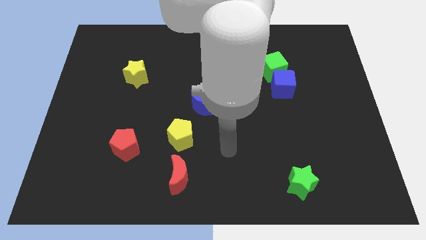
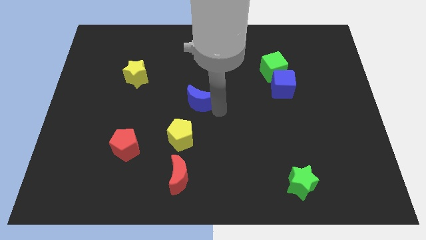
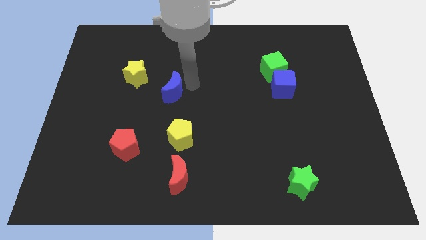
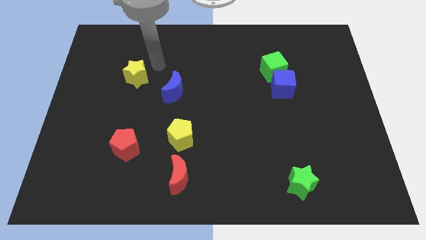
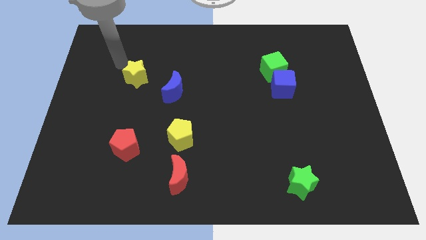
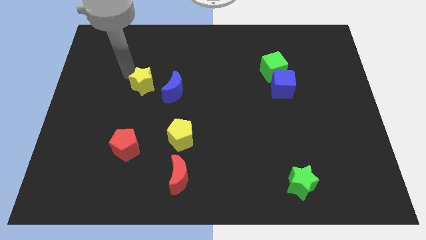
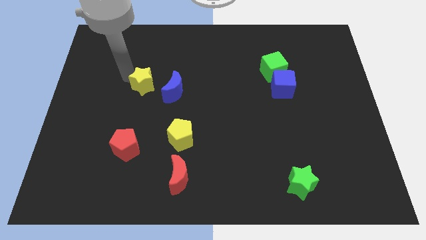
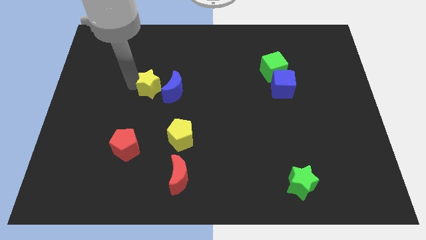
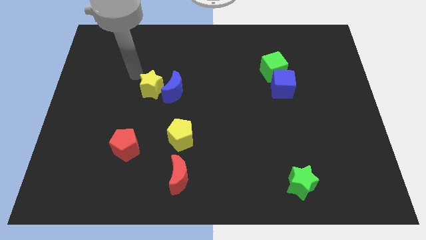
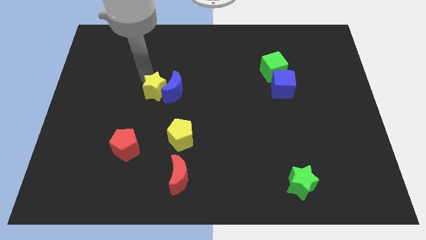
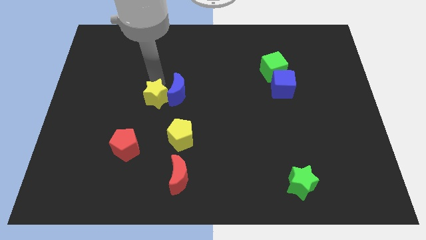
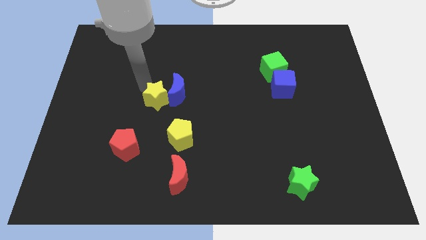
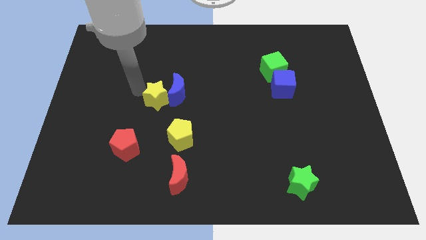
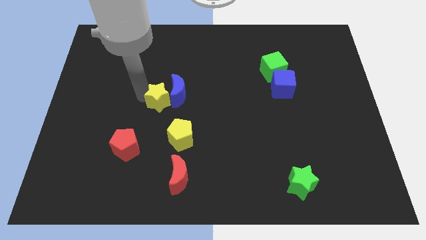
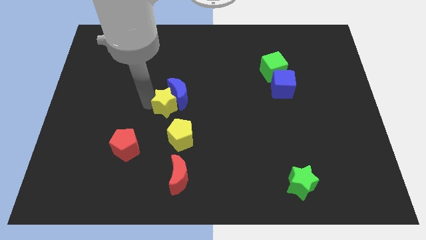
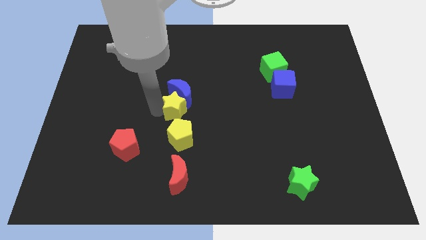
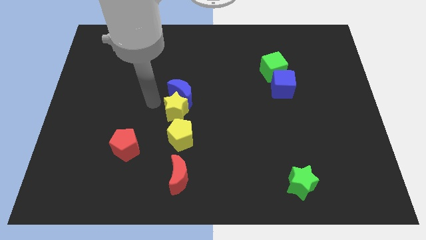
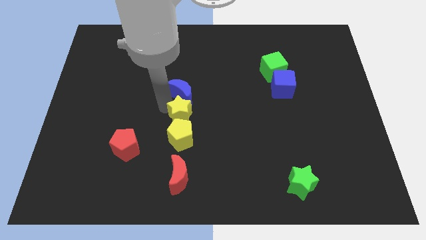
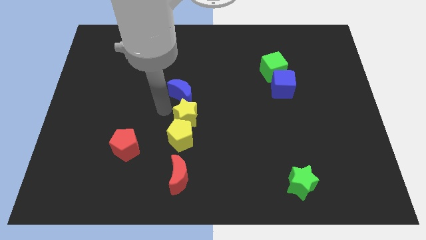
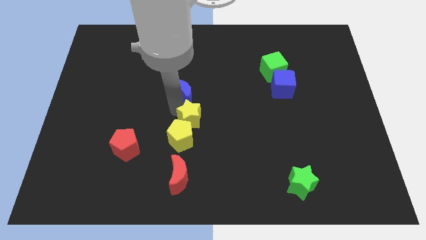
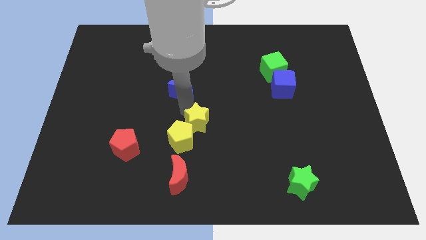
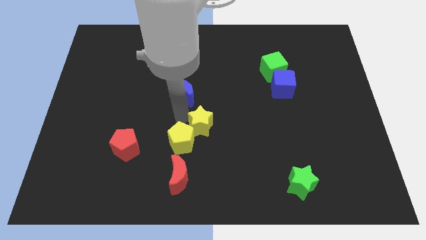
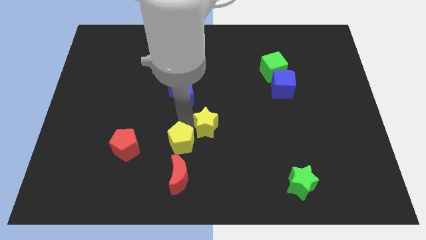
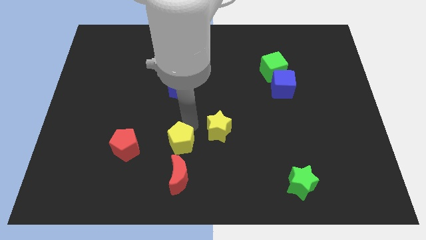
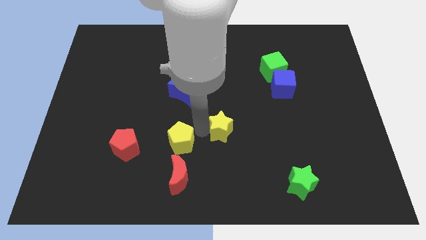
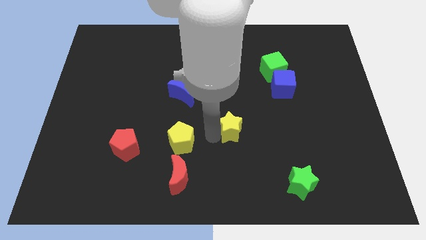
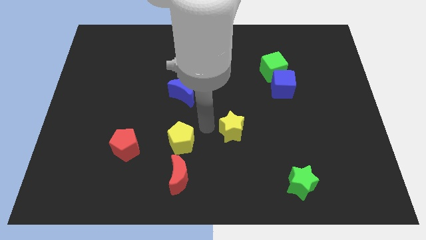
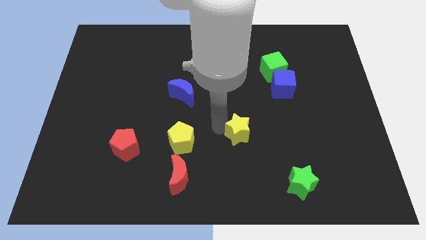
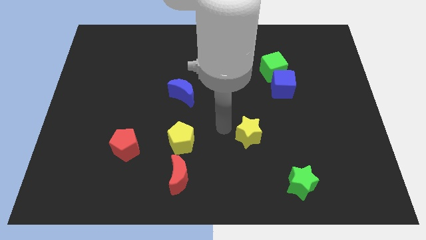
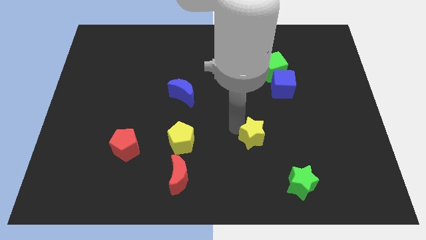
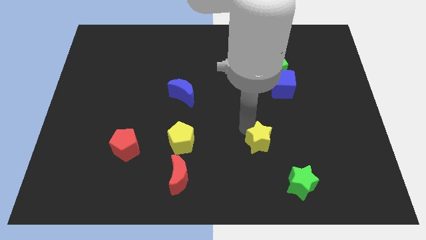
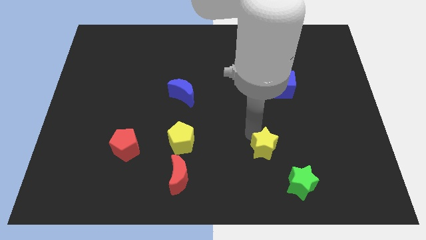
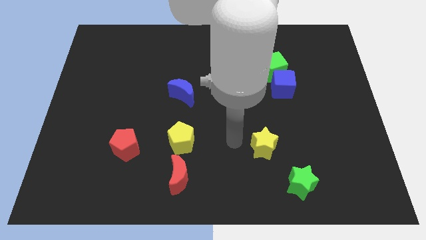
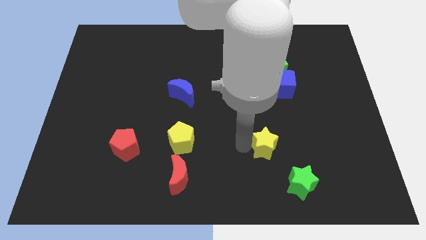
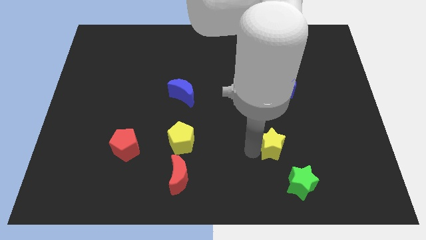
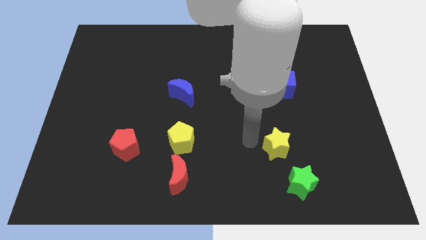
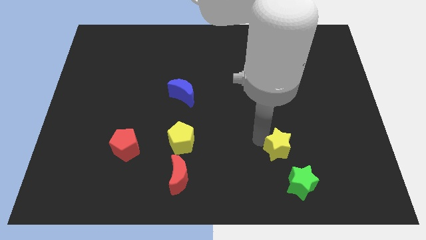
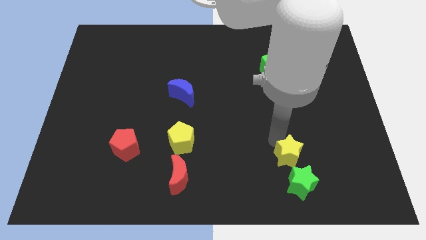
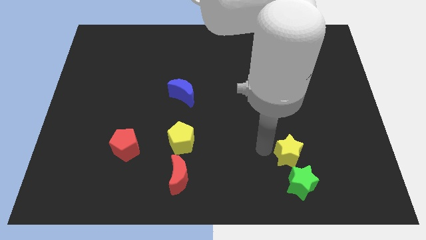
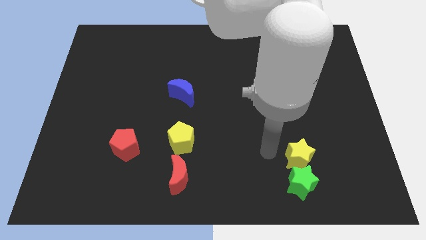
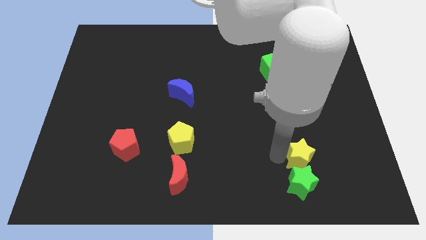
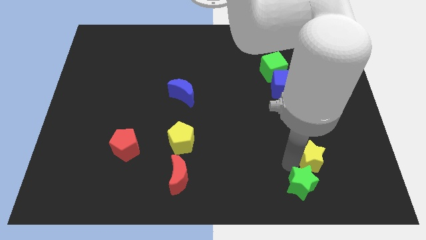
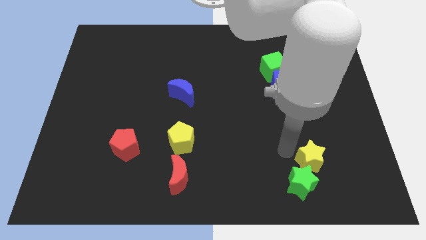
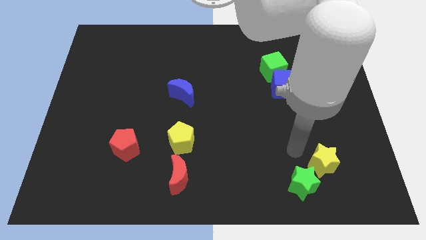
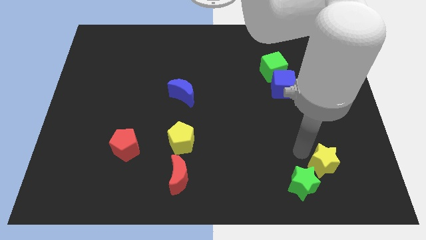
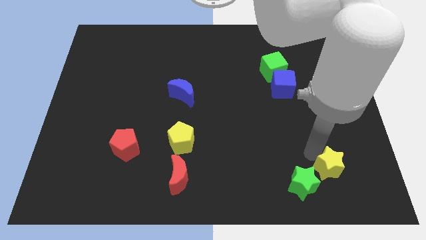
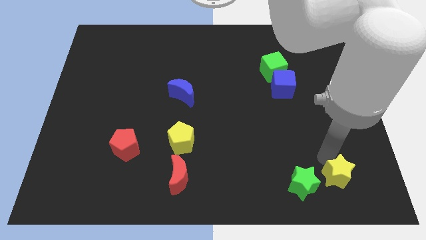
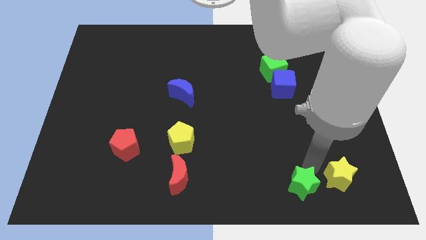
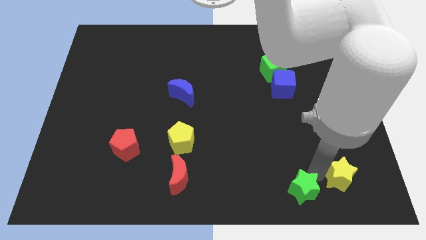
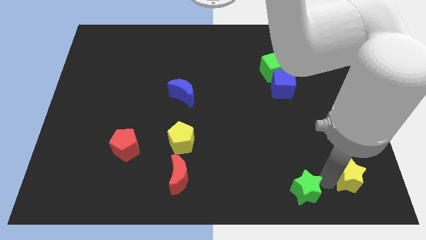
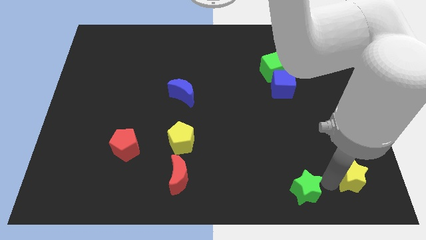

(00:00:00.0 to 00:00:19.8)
push the yellow star to the bottom right of the board

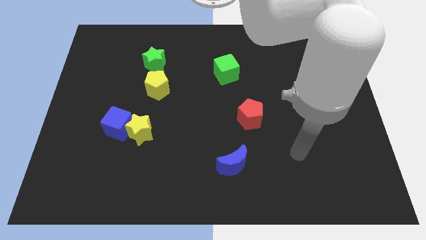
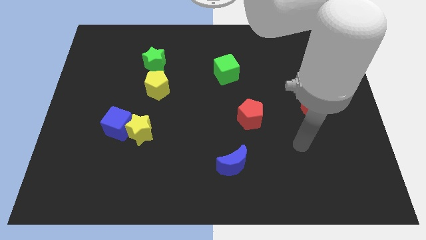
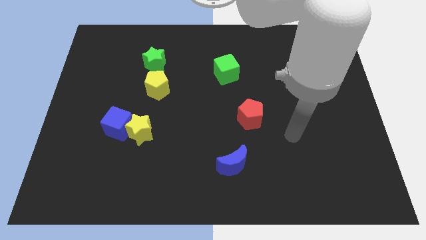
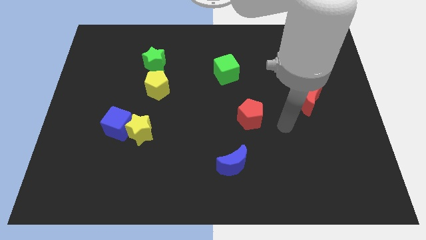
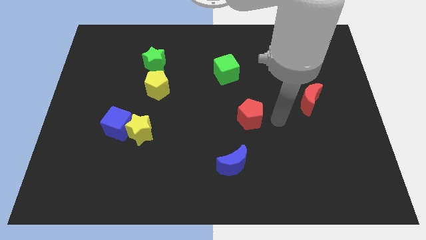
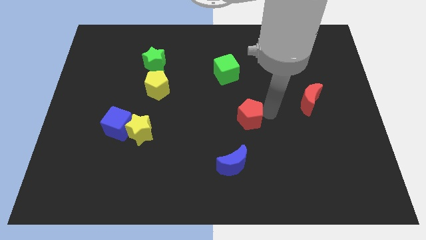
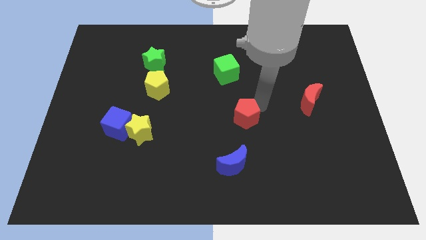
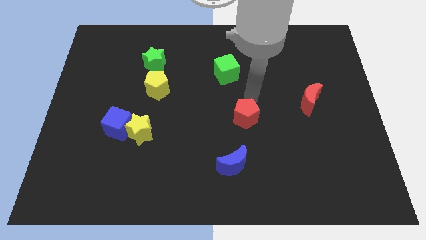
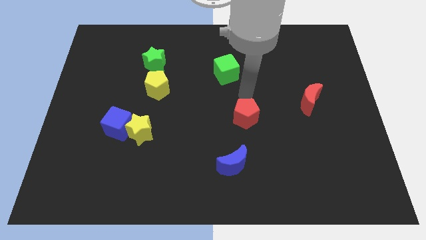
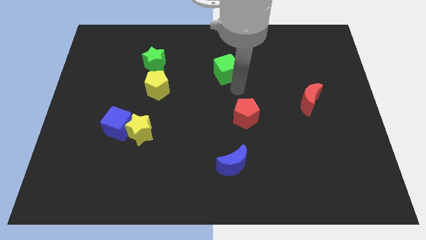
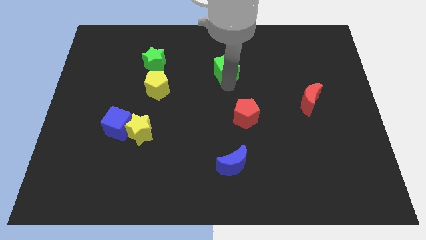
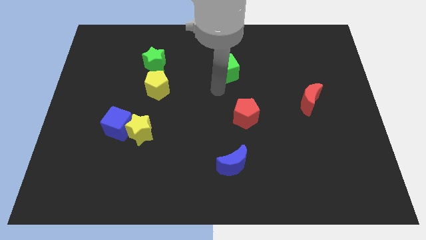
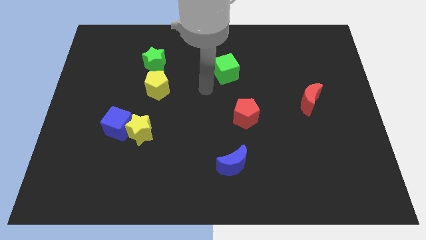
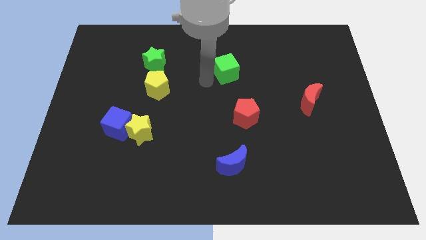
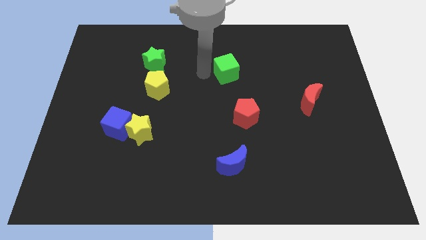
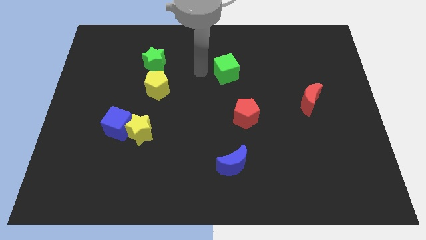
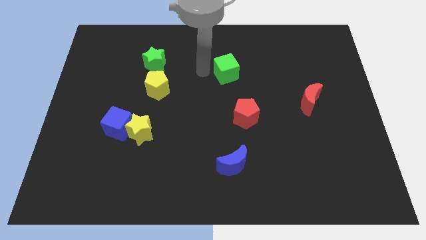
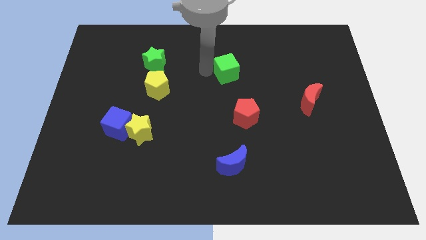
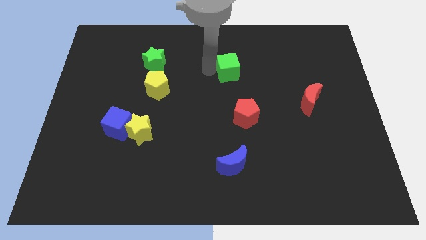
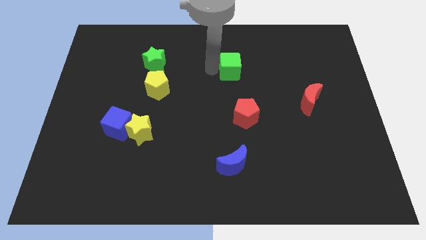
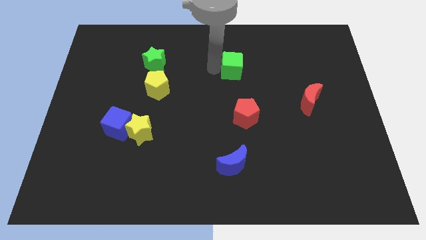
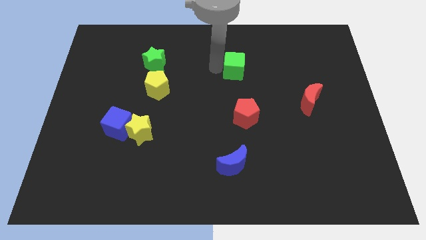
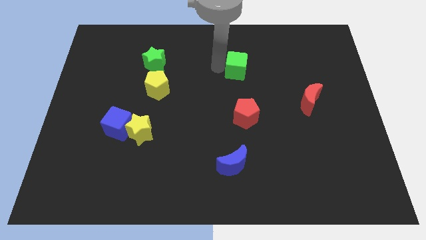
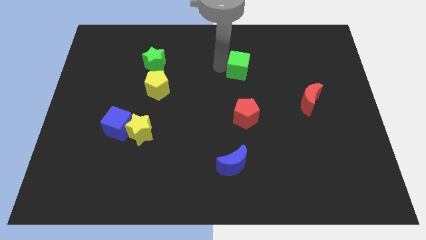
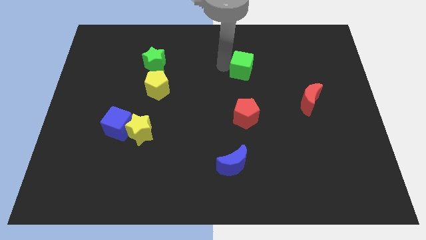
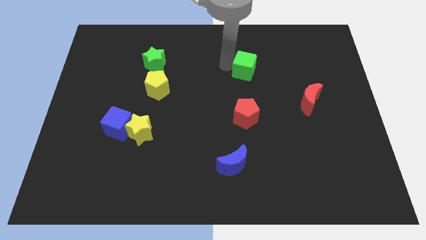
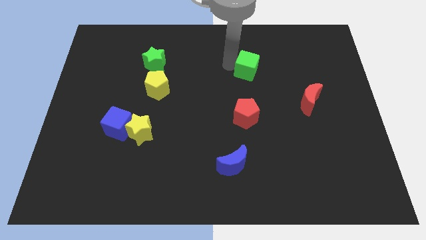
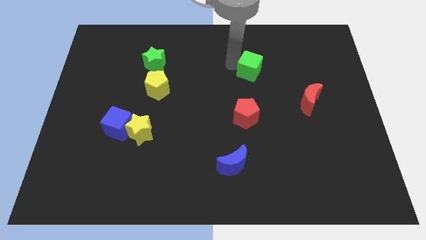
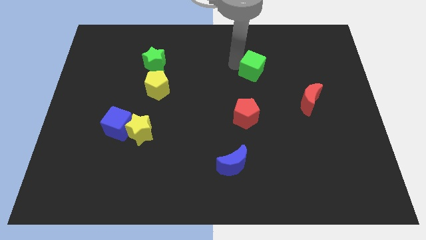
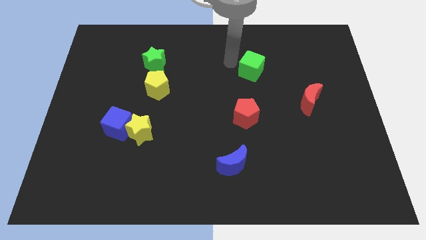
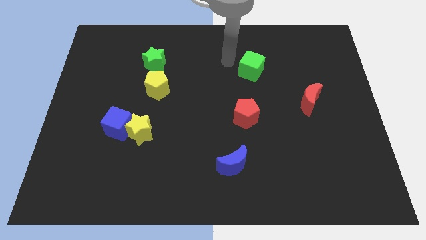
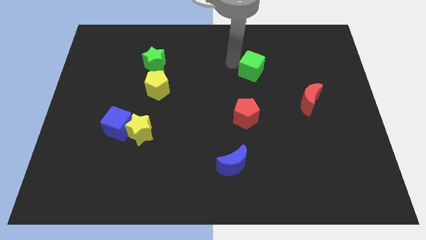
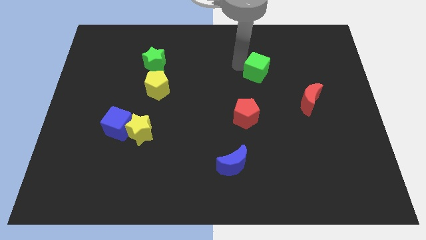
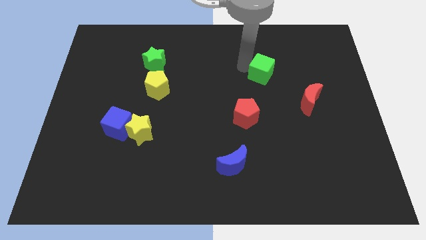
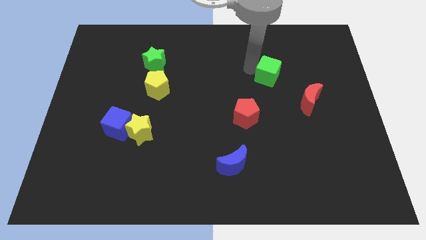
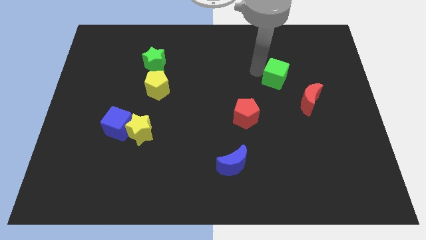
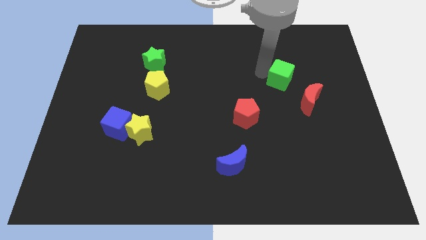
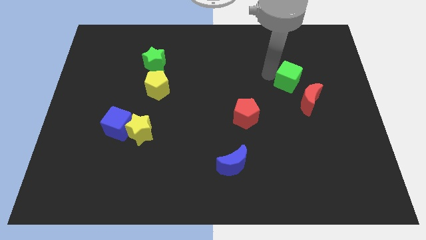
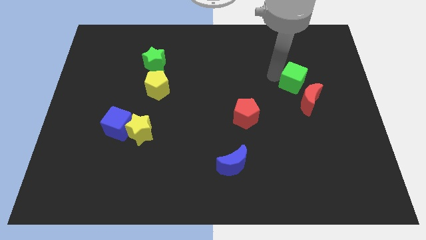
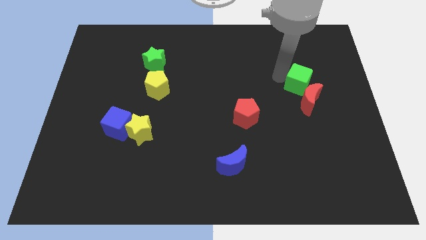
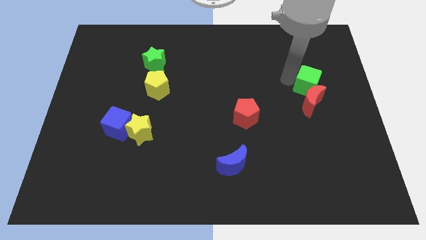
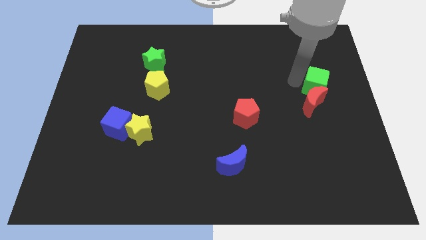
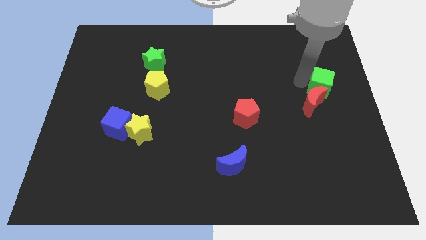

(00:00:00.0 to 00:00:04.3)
move the green cube to the center right
